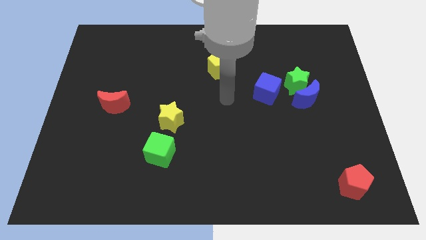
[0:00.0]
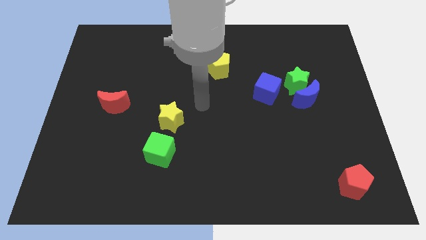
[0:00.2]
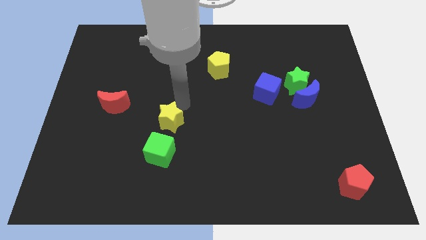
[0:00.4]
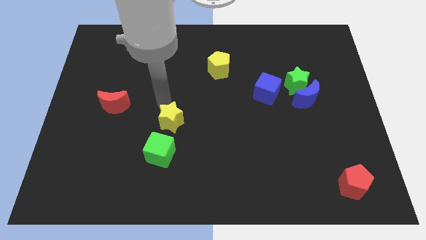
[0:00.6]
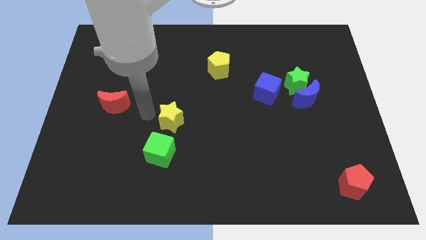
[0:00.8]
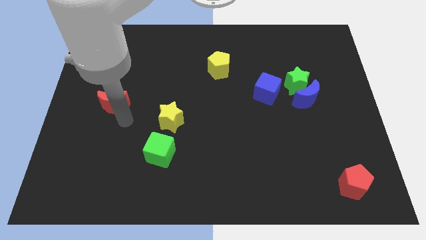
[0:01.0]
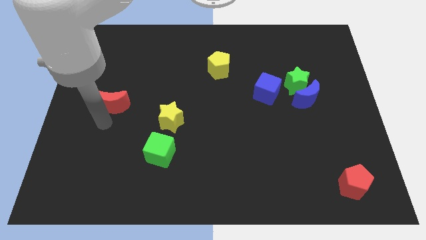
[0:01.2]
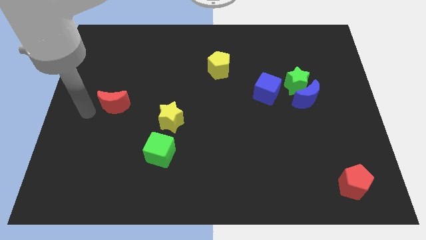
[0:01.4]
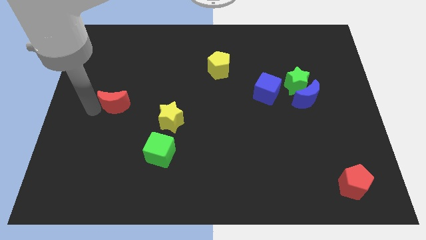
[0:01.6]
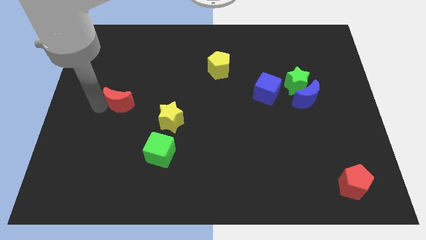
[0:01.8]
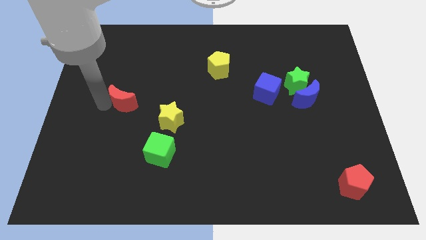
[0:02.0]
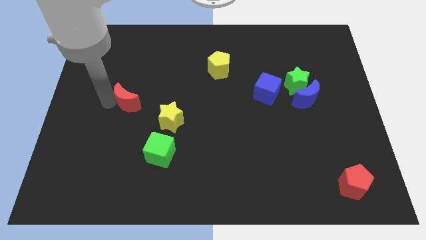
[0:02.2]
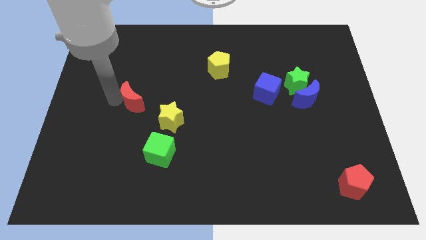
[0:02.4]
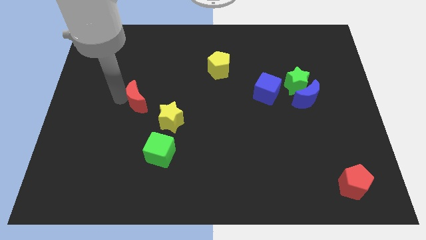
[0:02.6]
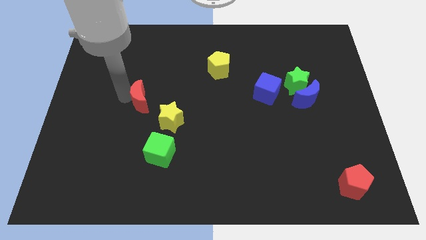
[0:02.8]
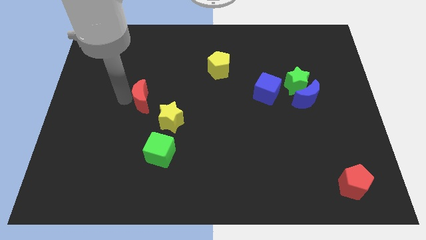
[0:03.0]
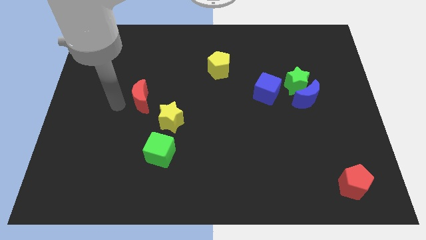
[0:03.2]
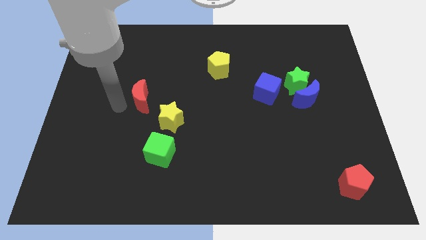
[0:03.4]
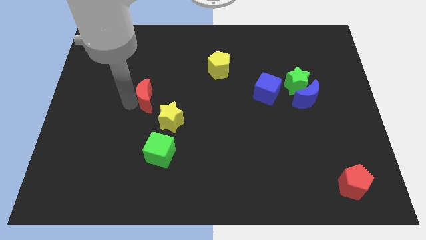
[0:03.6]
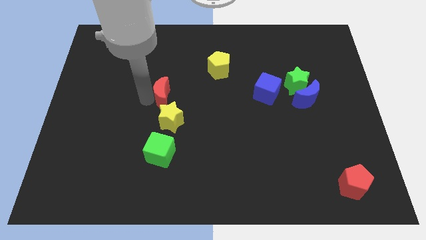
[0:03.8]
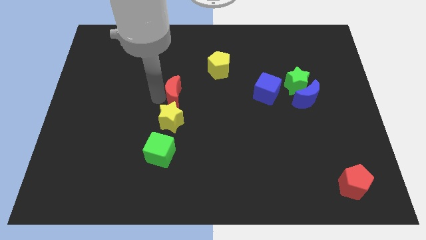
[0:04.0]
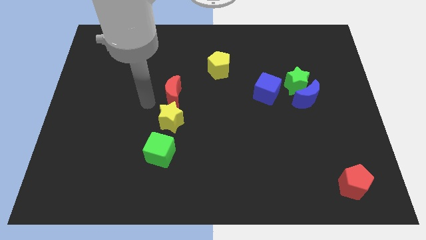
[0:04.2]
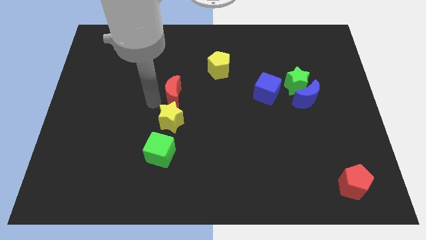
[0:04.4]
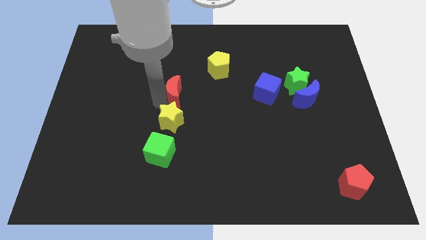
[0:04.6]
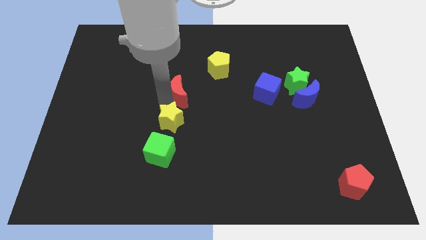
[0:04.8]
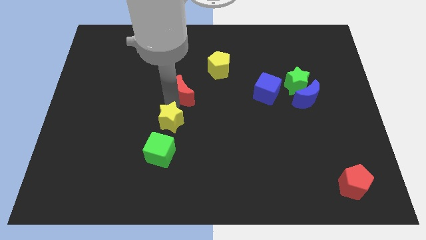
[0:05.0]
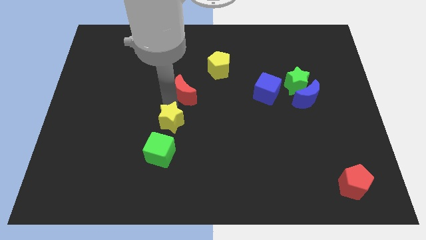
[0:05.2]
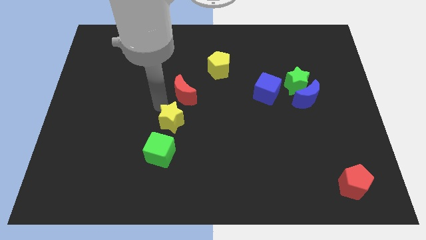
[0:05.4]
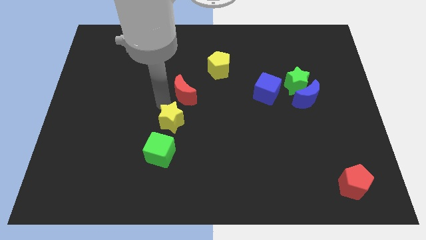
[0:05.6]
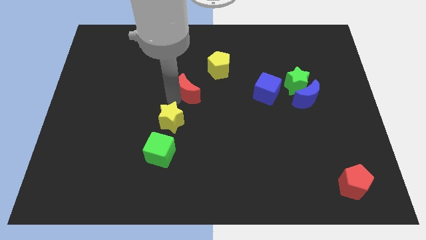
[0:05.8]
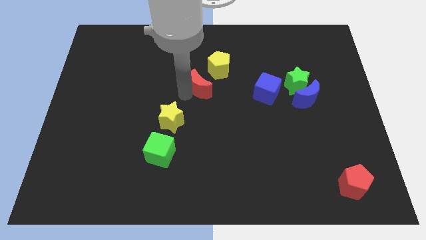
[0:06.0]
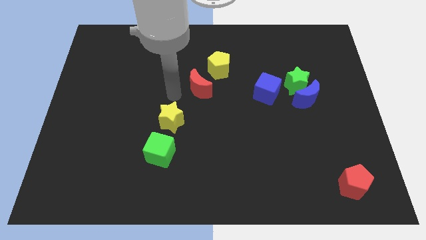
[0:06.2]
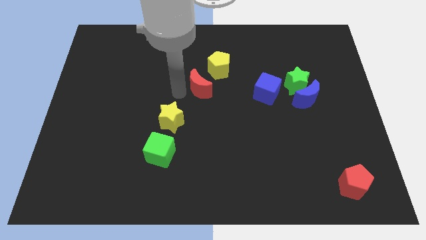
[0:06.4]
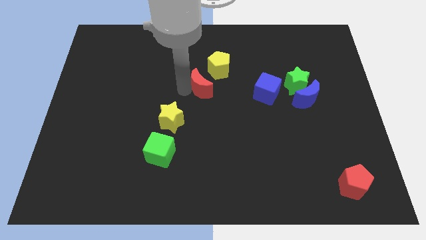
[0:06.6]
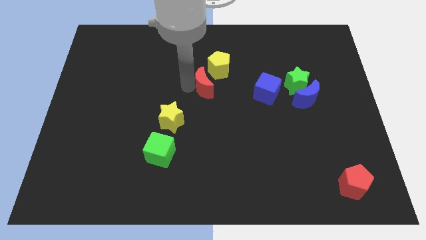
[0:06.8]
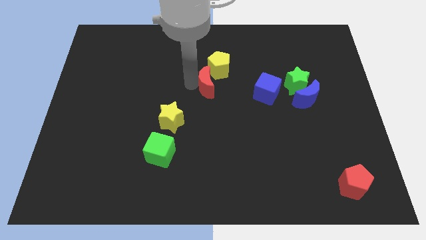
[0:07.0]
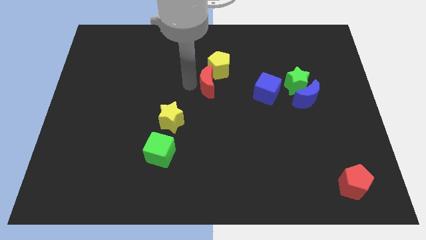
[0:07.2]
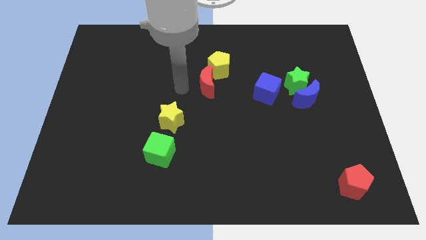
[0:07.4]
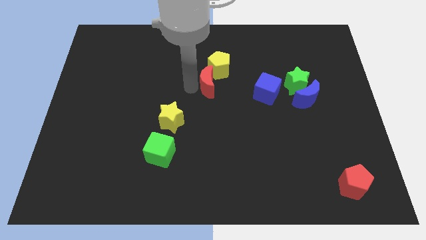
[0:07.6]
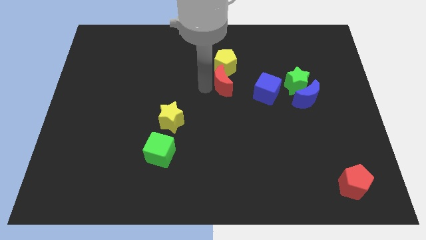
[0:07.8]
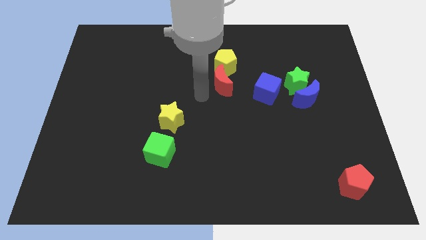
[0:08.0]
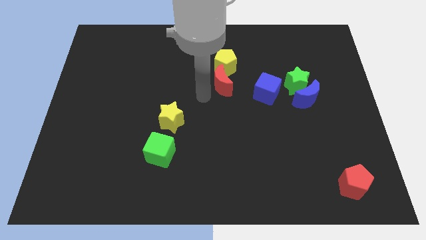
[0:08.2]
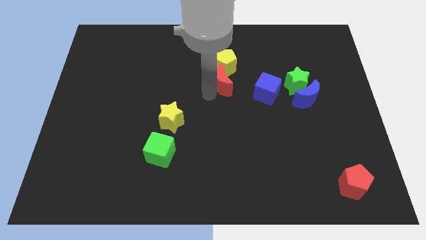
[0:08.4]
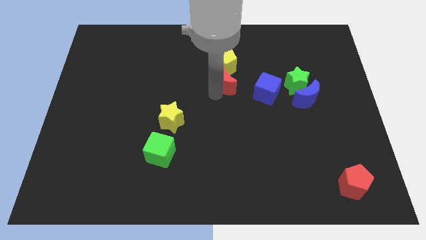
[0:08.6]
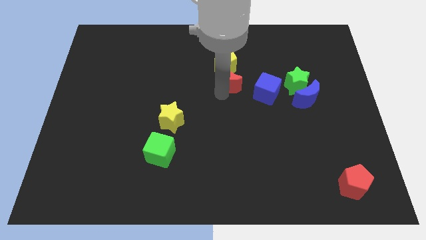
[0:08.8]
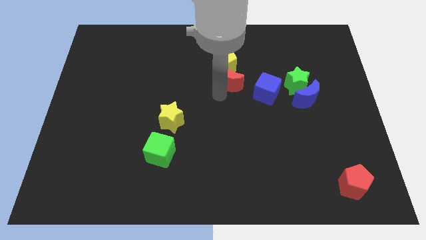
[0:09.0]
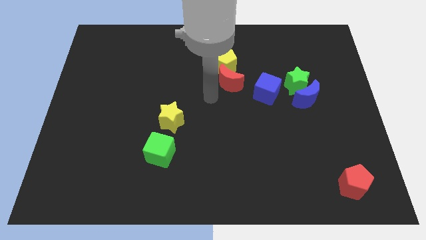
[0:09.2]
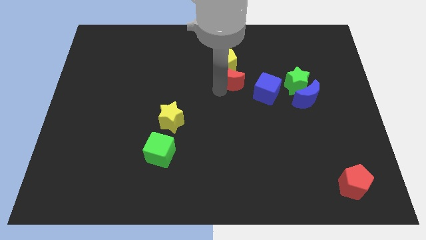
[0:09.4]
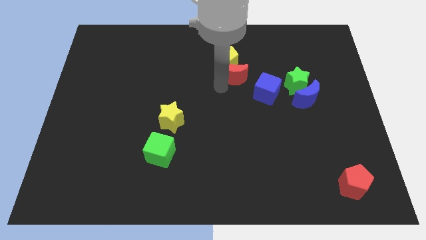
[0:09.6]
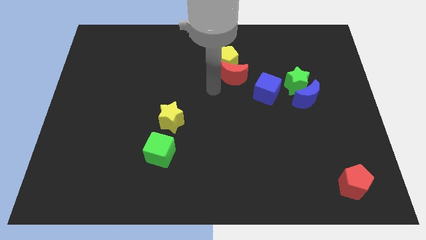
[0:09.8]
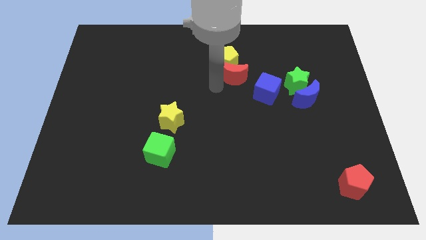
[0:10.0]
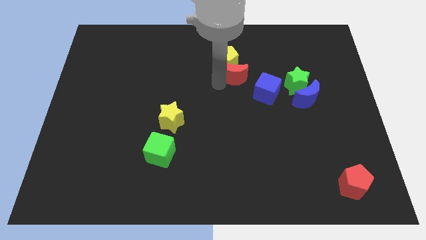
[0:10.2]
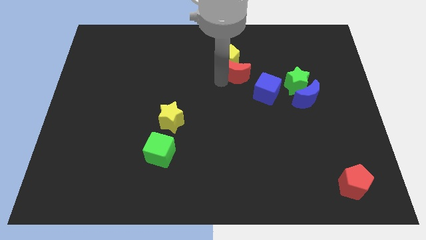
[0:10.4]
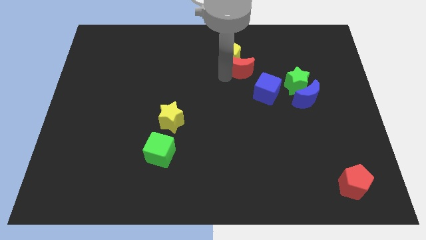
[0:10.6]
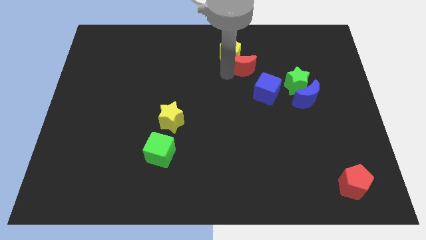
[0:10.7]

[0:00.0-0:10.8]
push the red moon just right of the yellow pentagon
